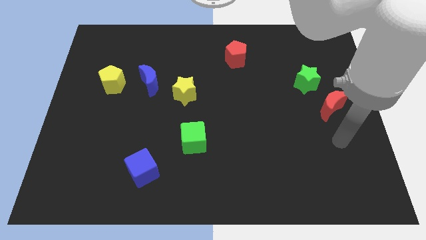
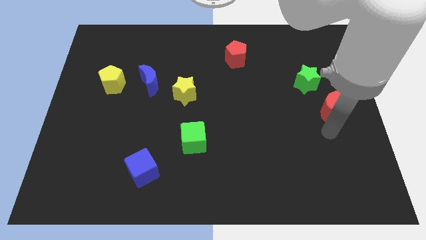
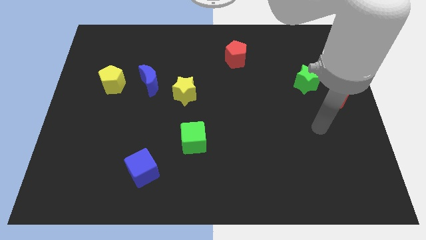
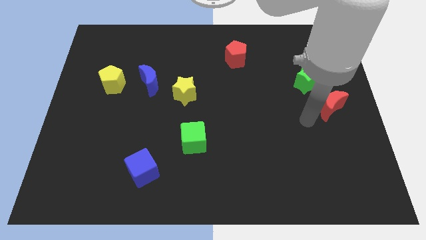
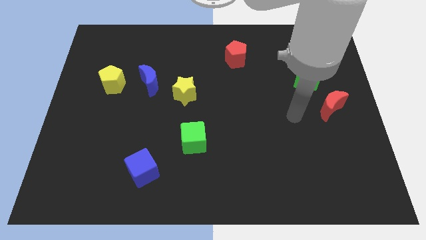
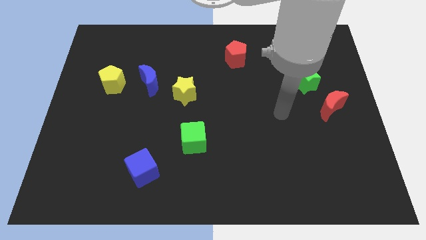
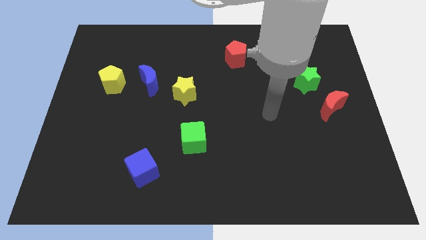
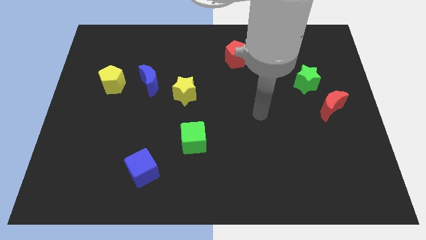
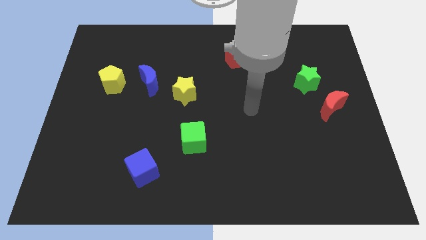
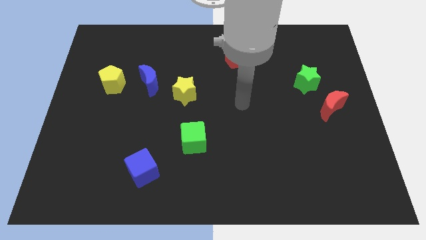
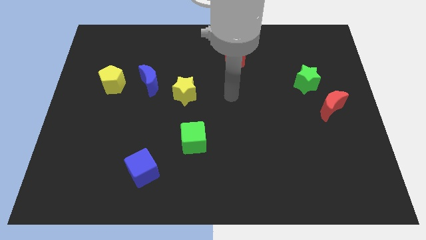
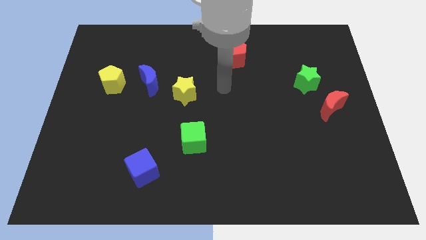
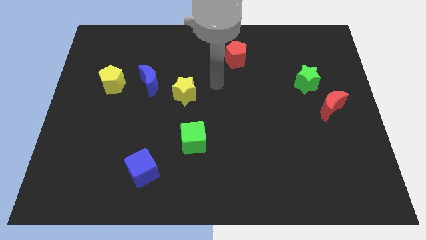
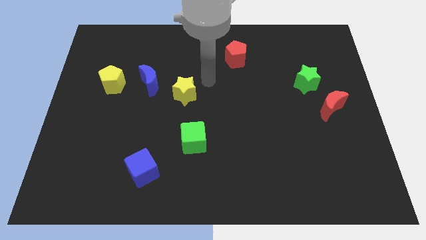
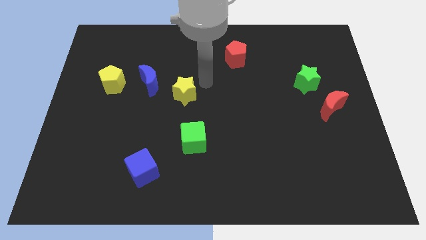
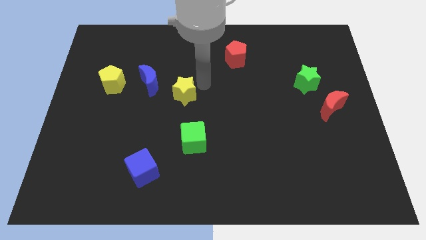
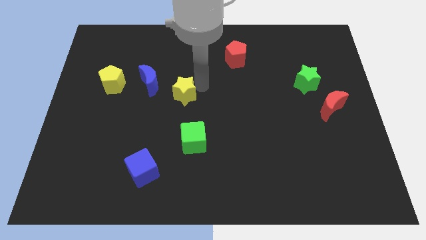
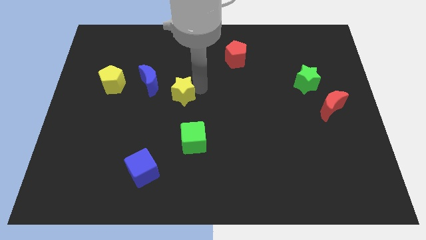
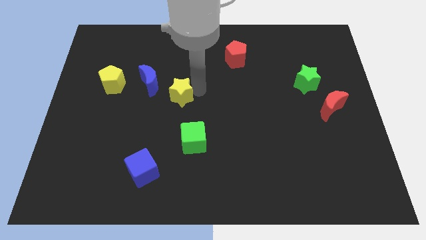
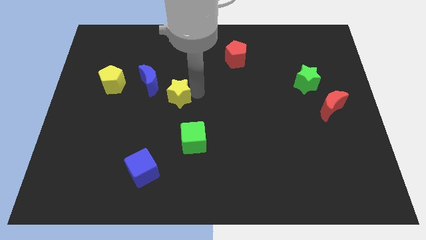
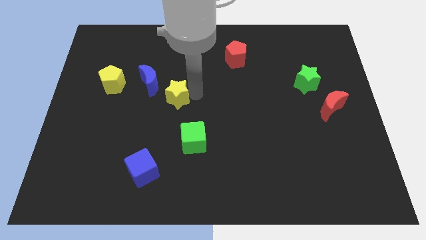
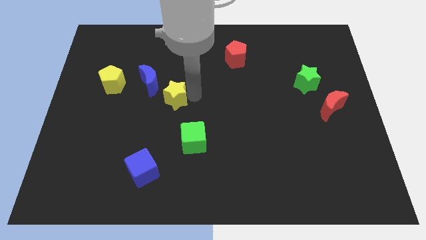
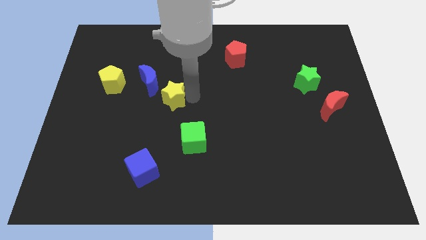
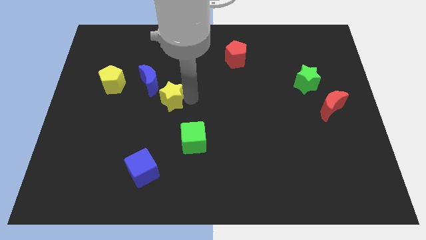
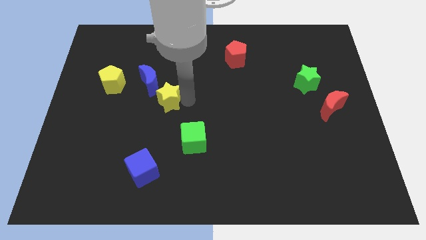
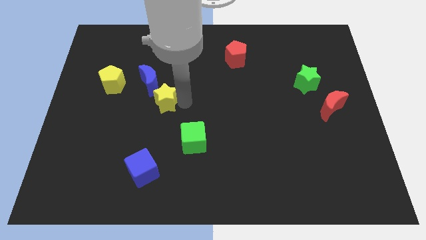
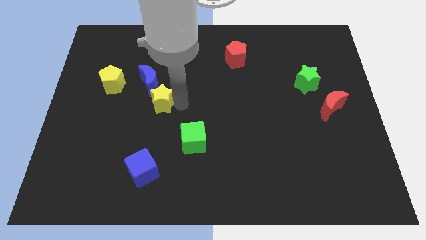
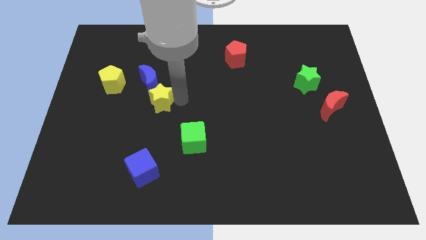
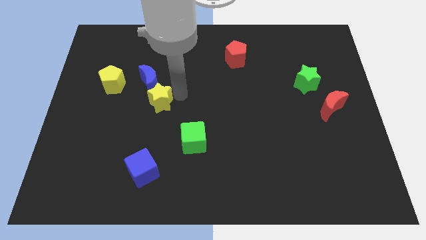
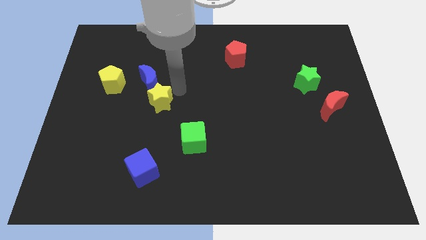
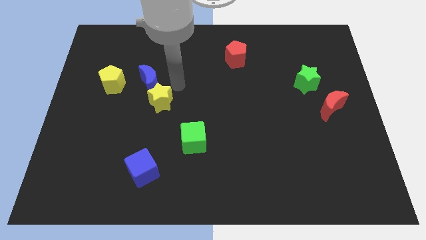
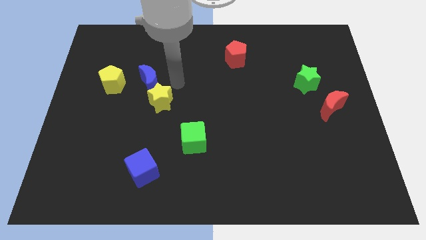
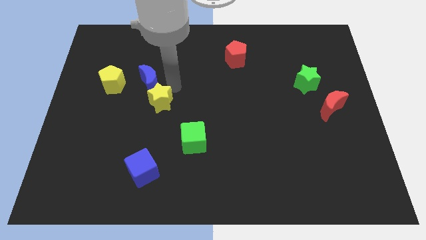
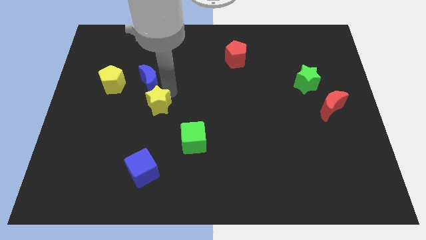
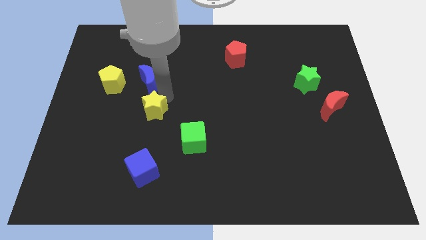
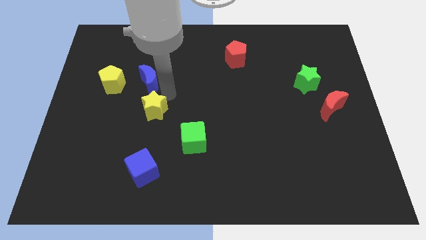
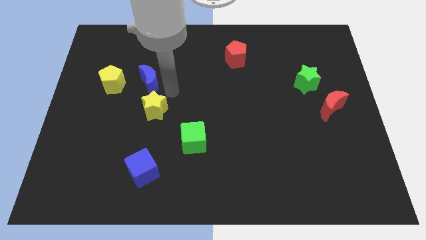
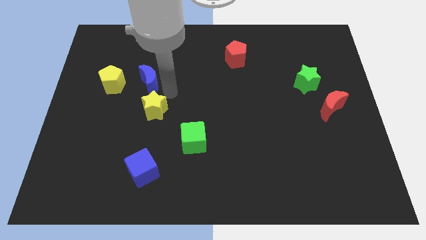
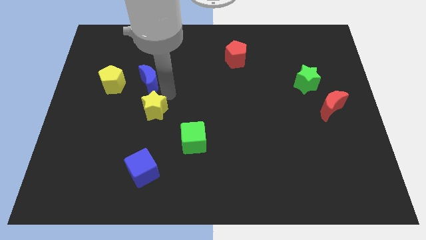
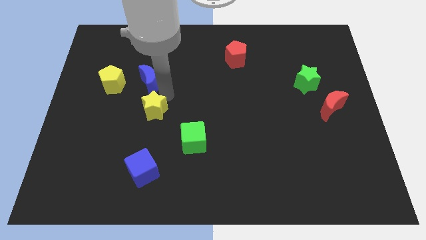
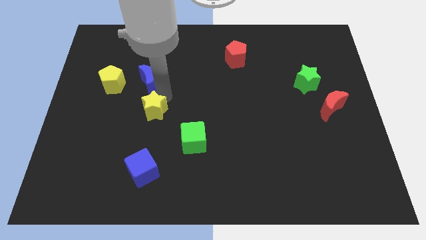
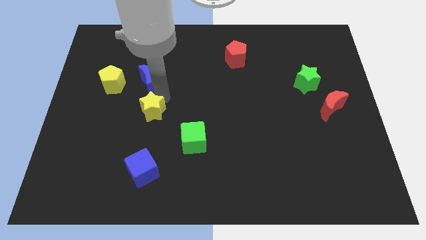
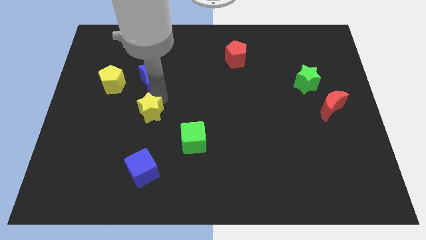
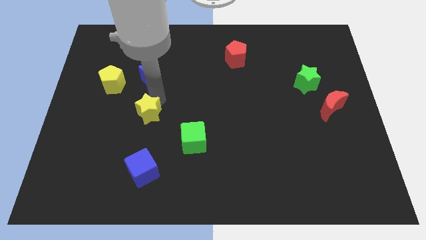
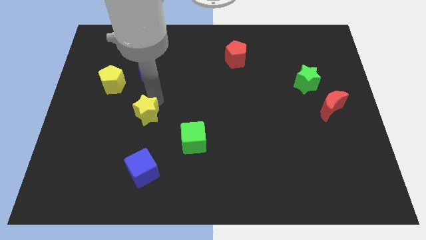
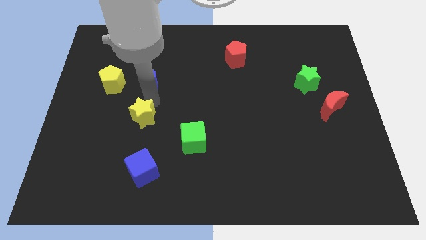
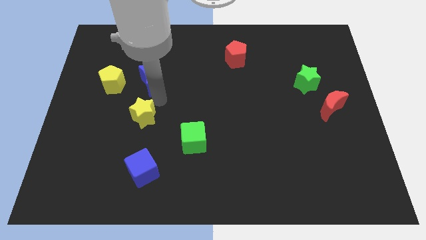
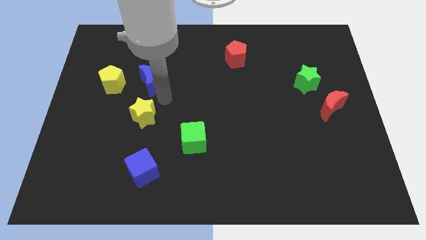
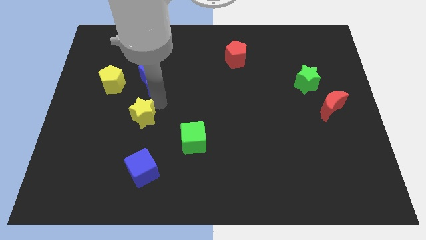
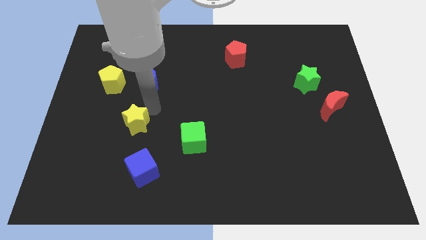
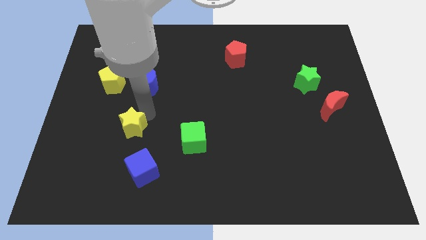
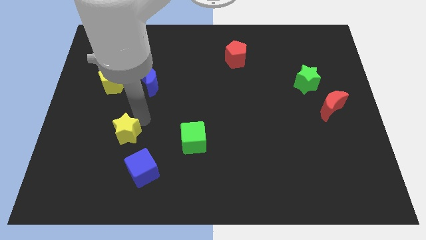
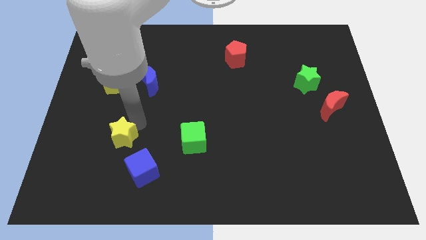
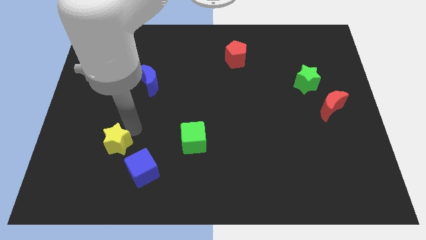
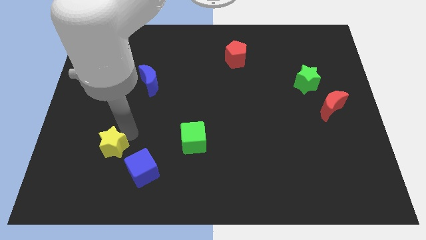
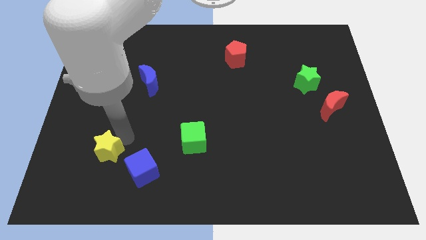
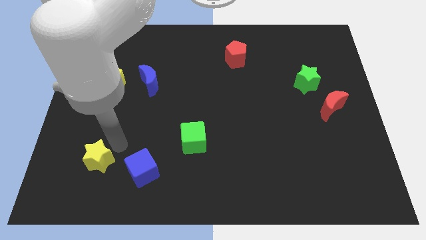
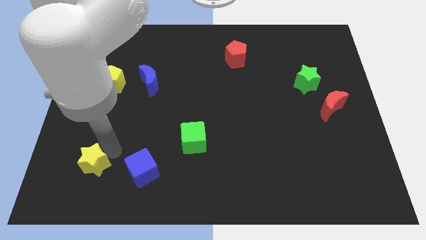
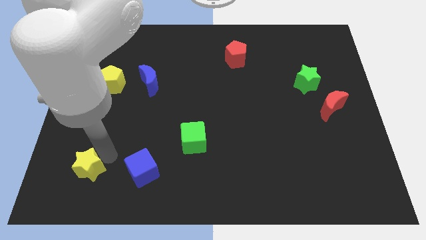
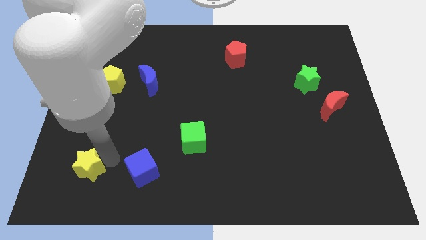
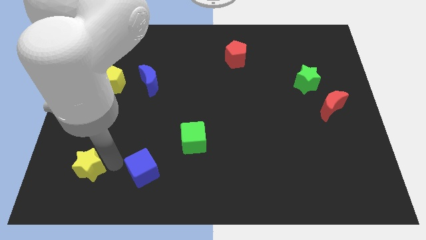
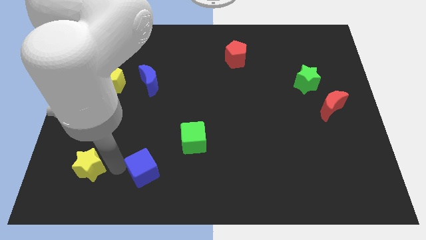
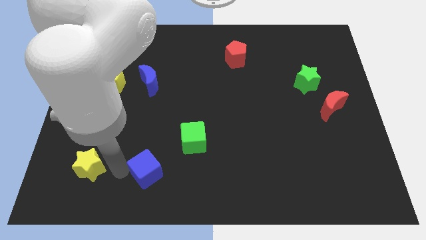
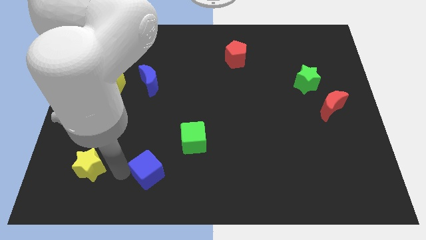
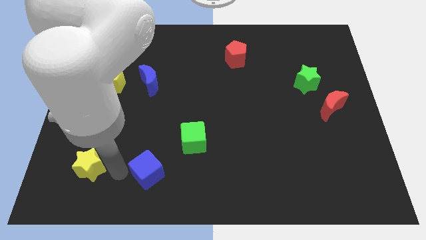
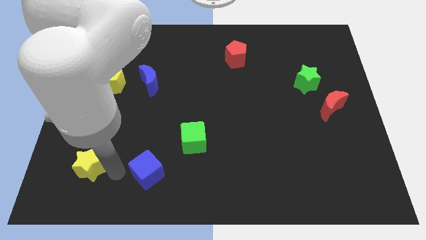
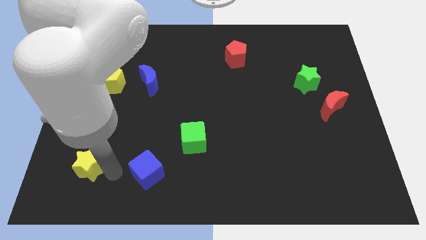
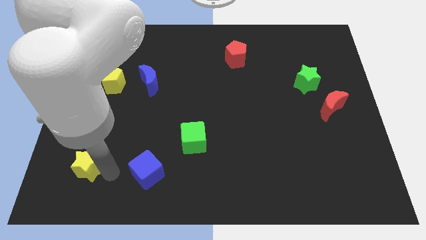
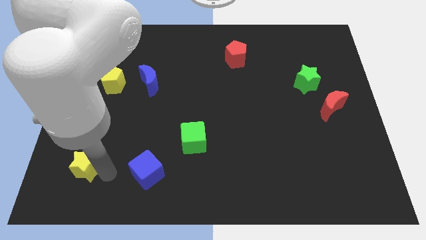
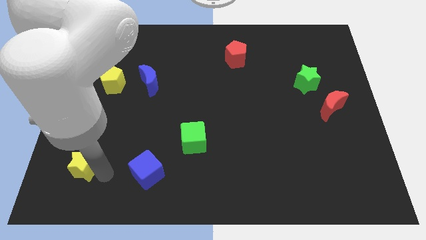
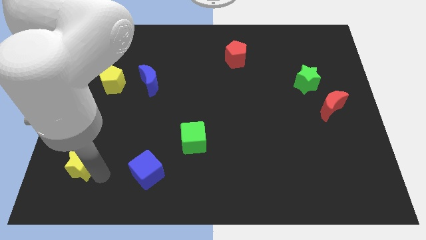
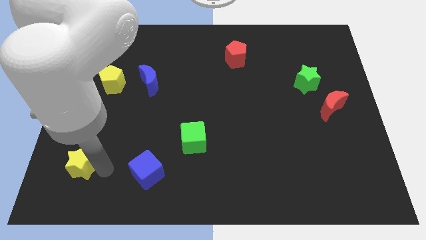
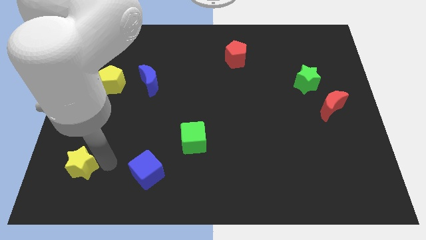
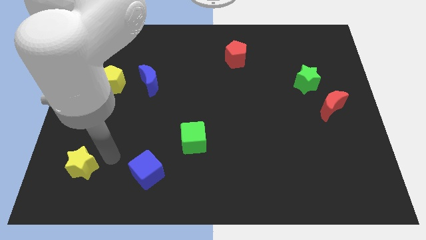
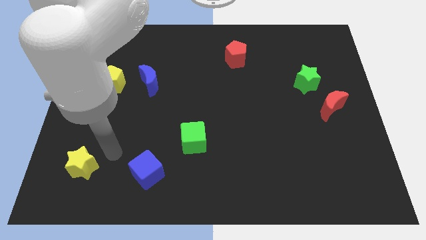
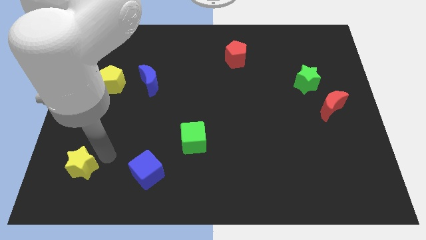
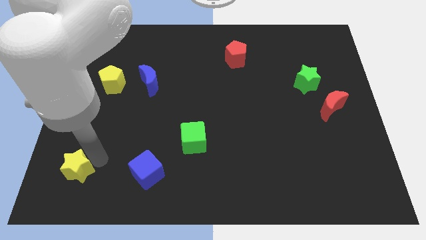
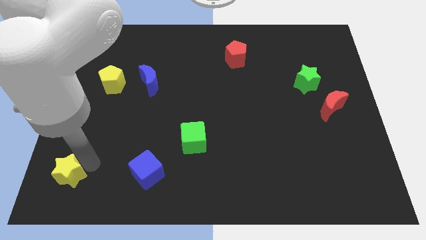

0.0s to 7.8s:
slide the yellow star to the lower left corner
